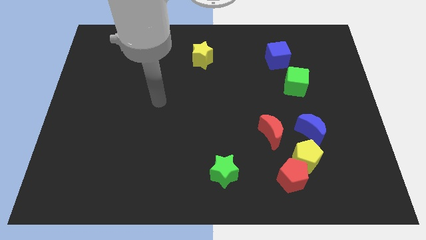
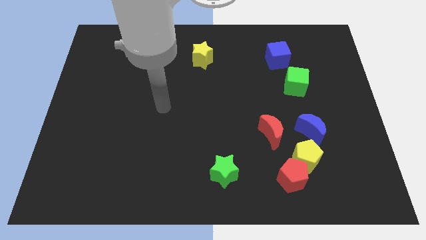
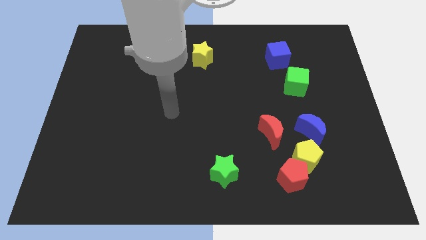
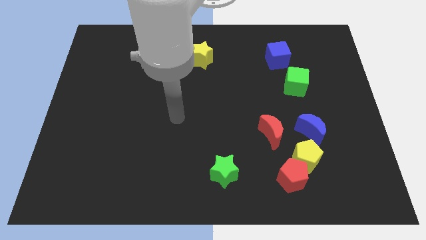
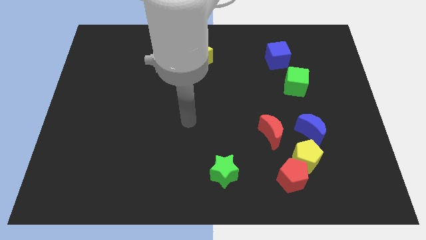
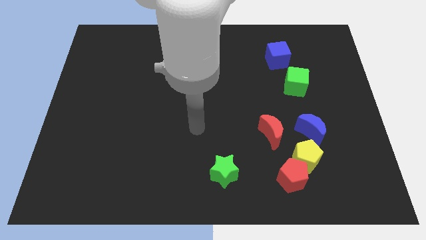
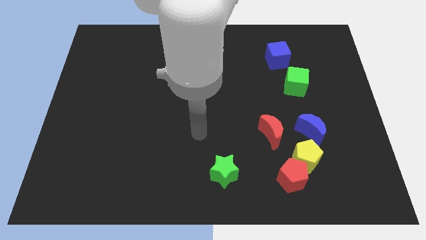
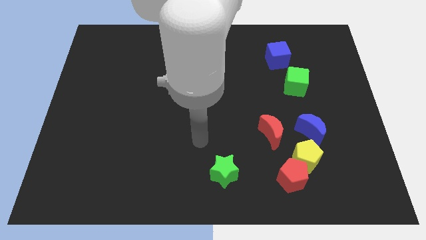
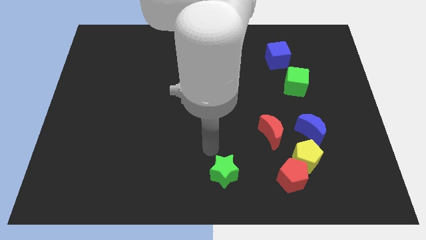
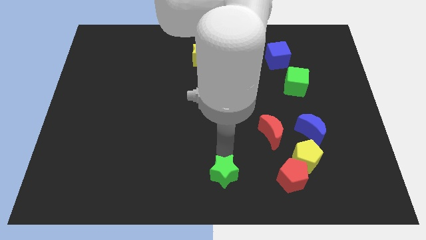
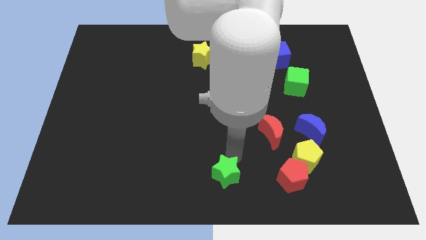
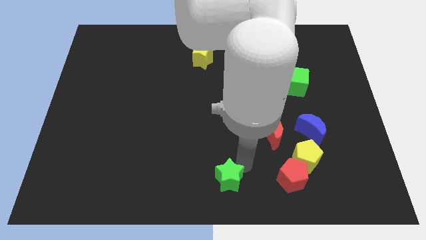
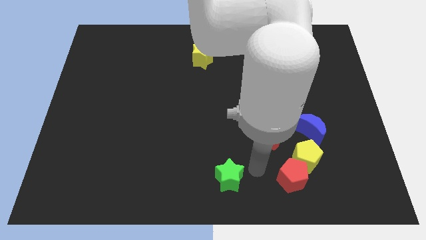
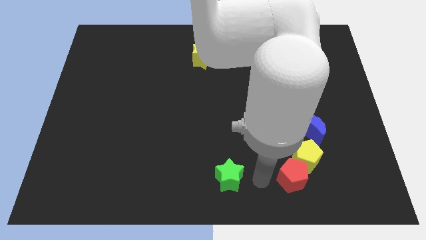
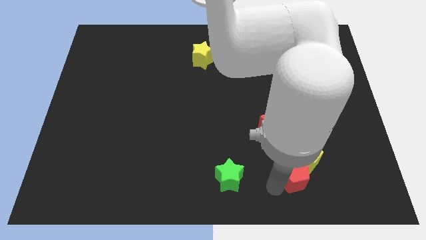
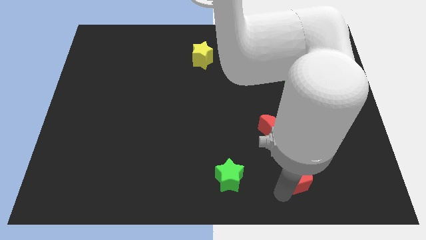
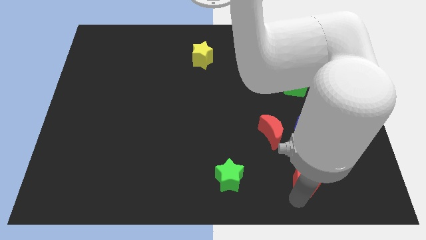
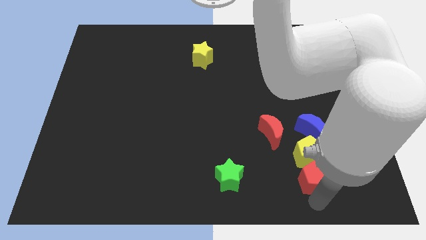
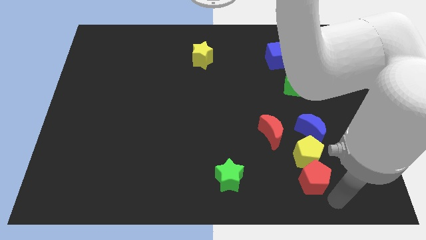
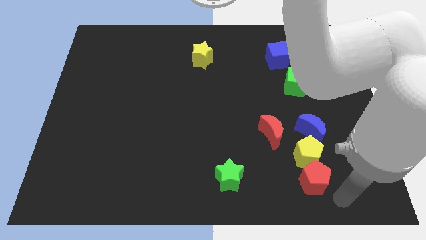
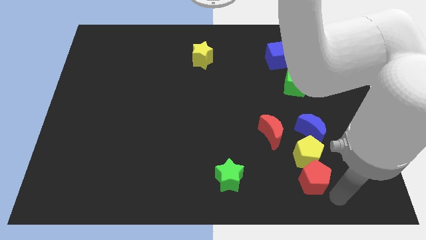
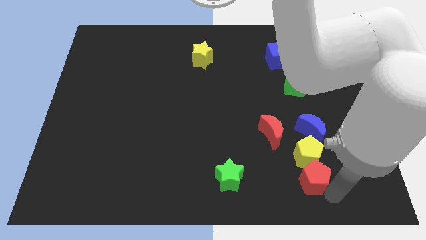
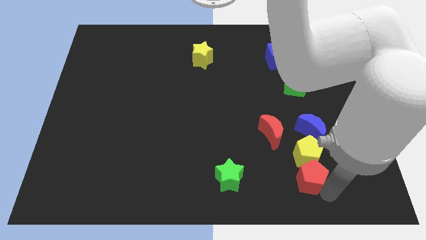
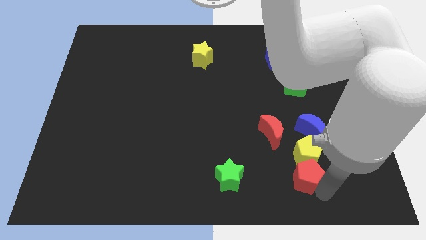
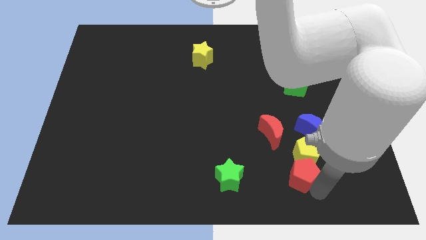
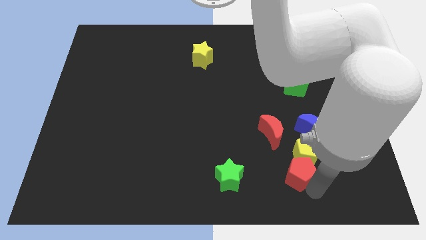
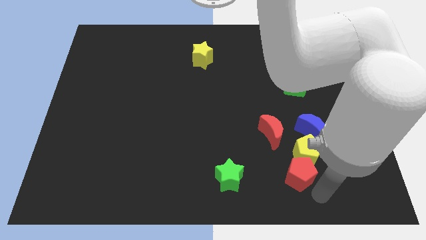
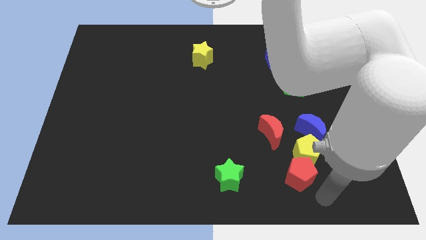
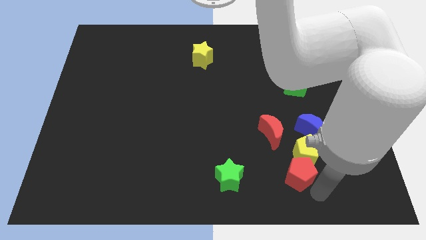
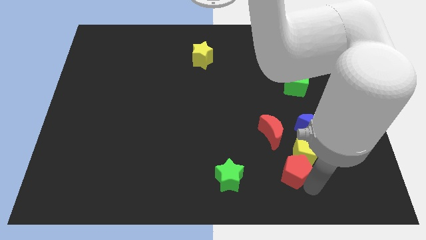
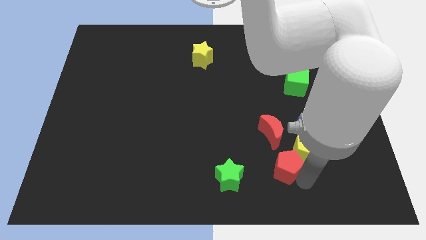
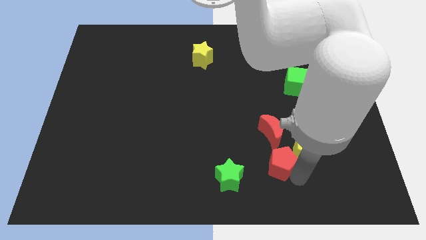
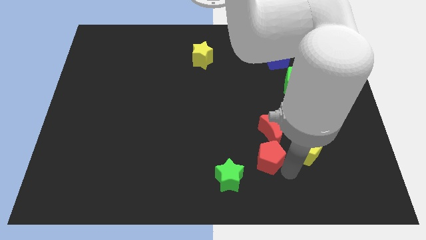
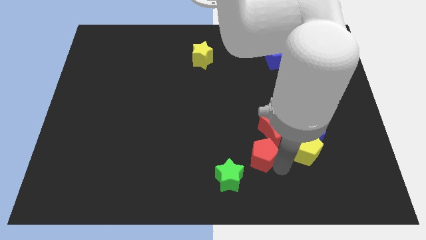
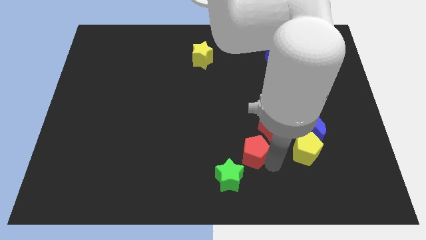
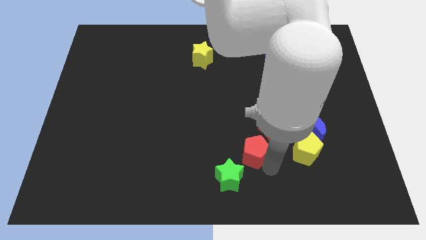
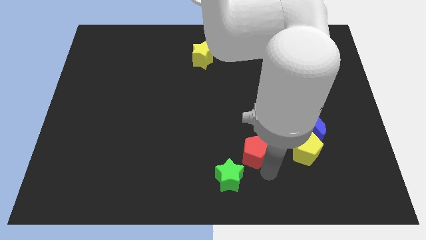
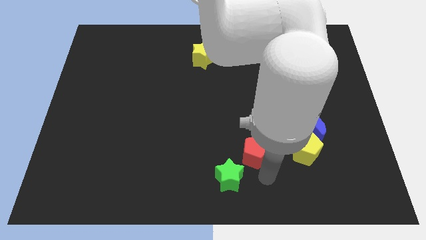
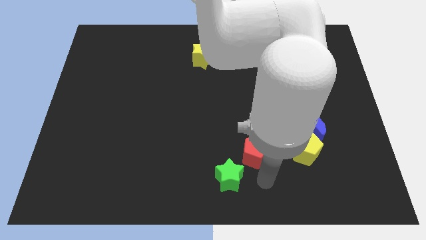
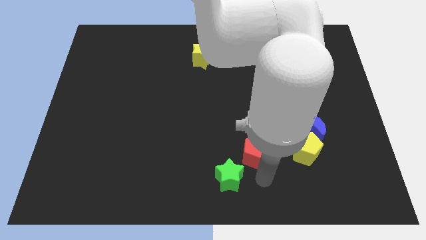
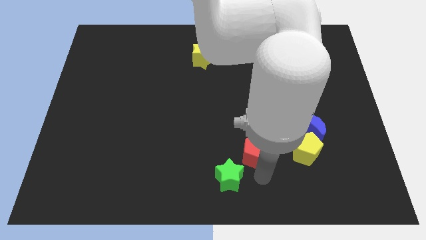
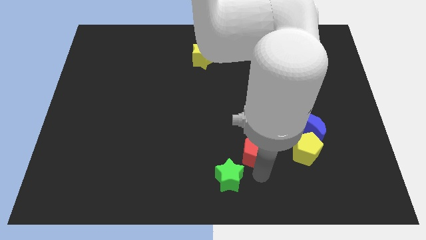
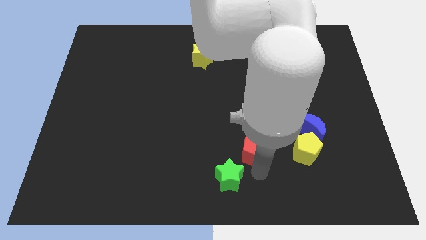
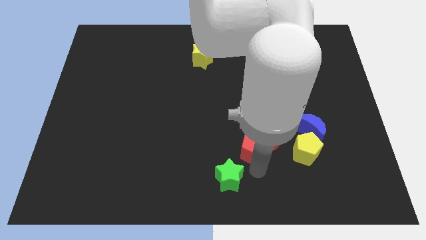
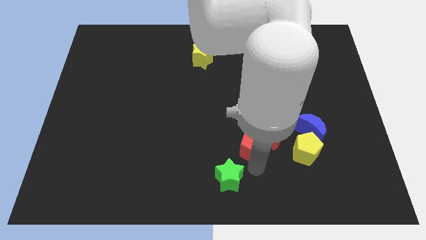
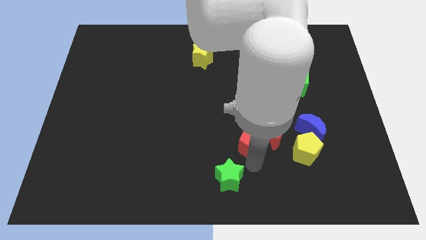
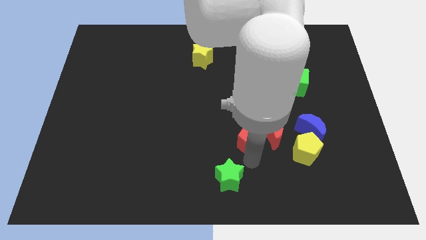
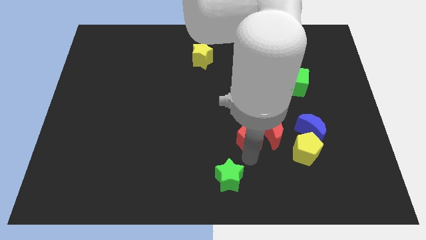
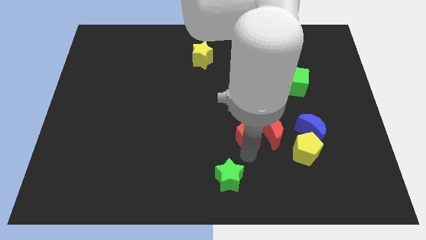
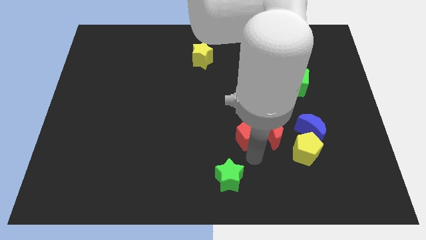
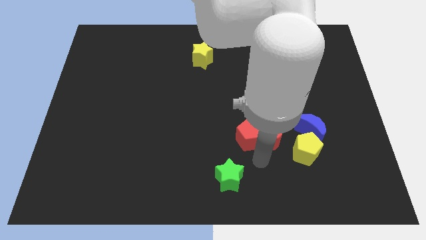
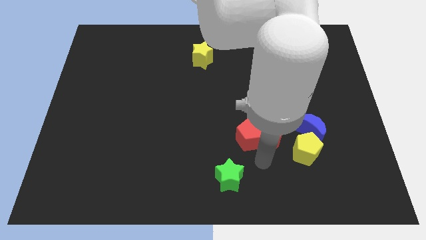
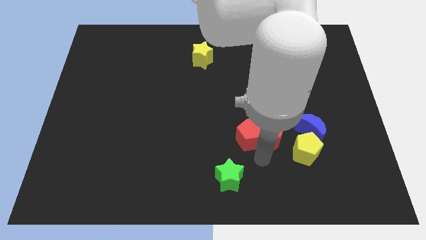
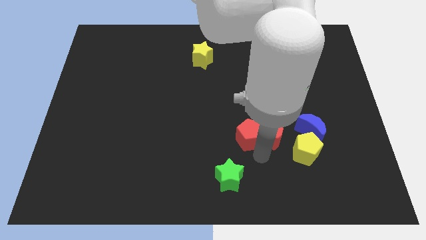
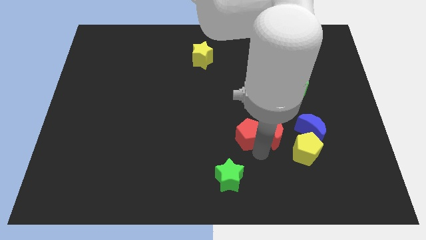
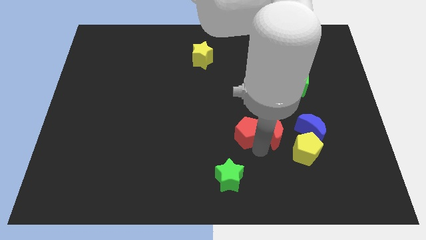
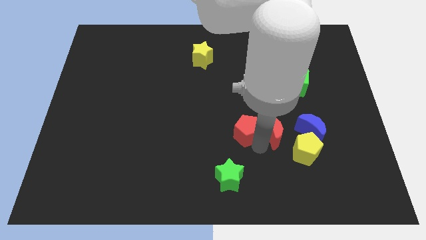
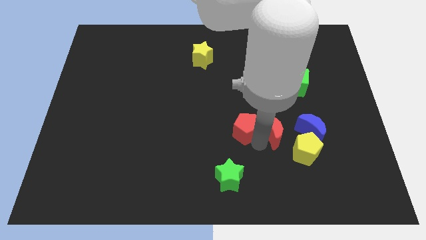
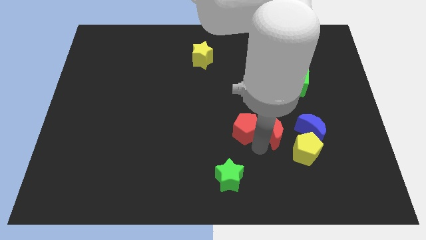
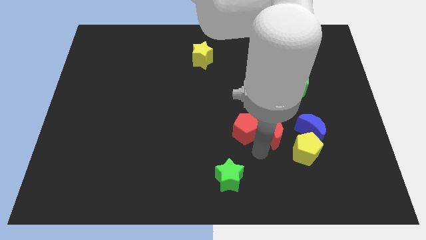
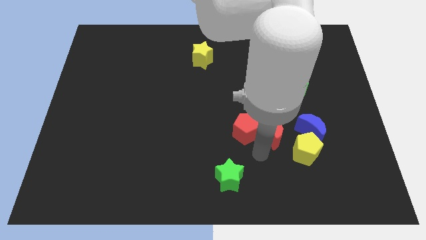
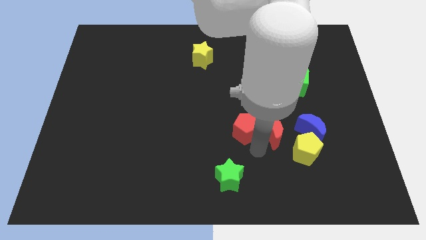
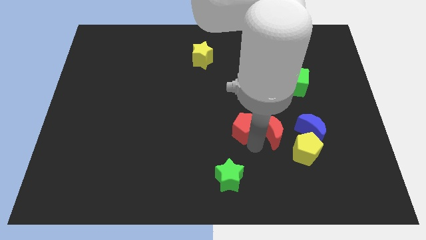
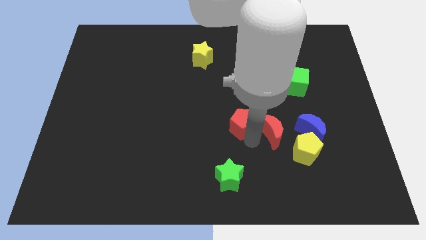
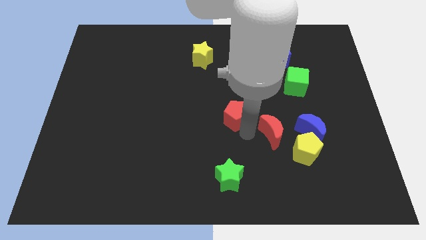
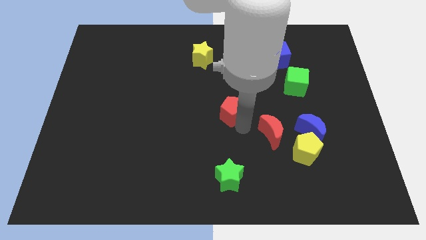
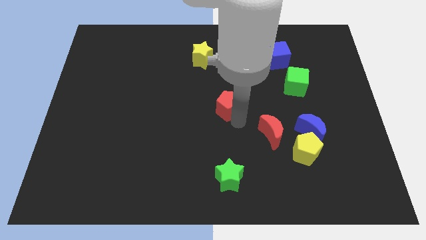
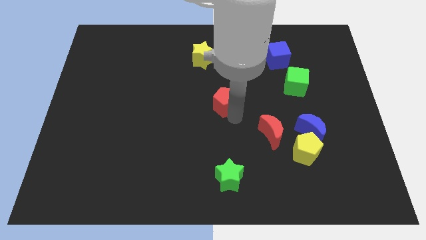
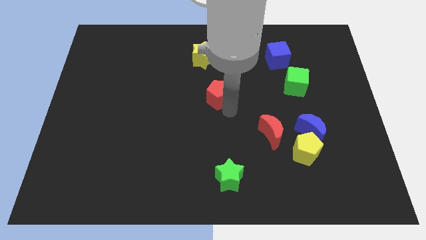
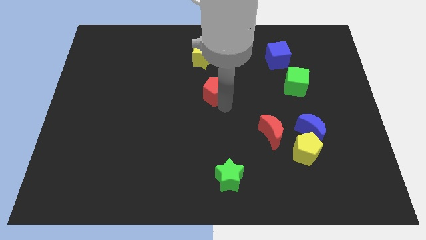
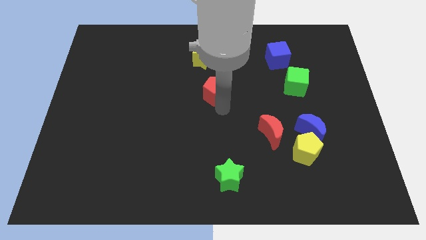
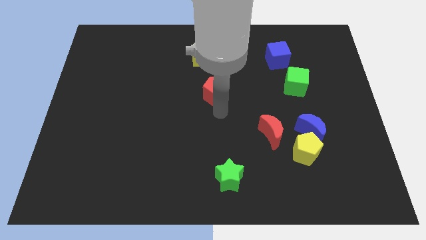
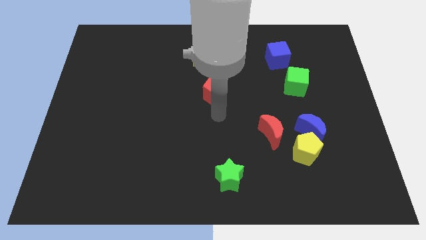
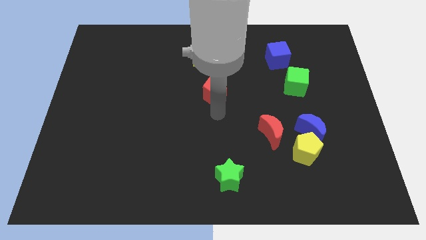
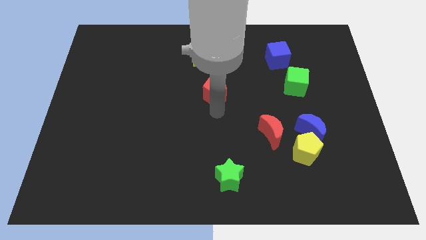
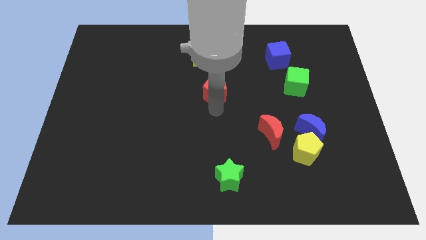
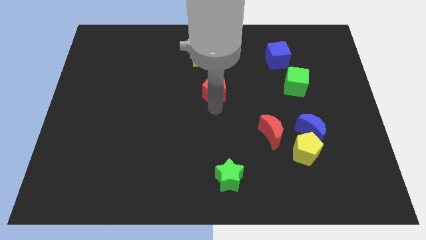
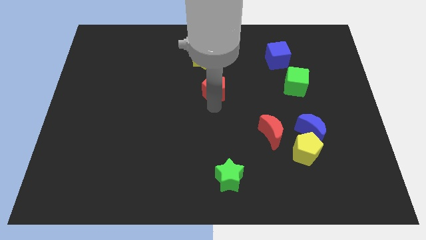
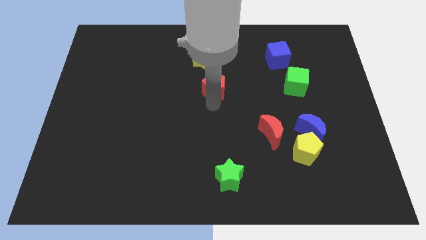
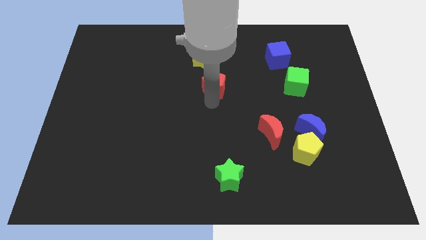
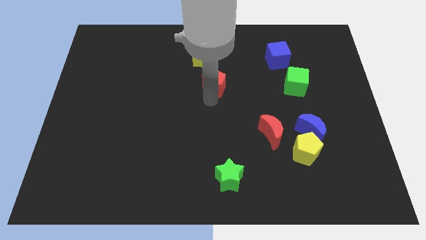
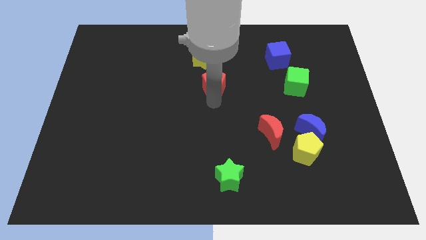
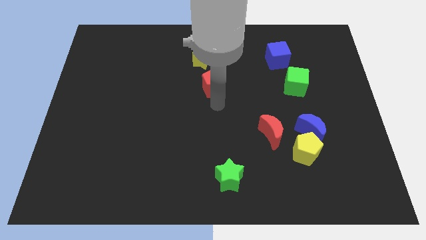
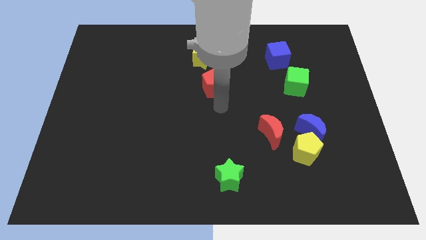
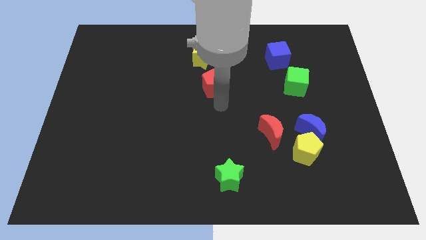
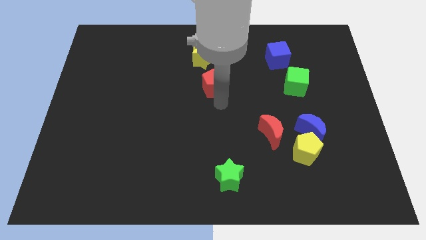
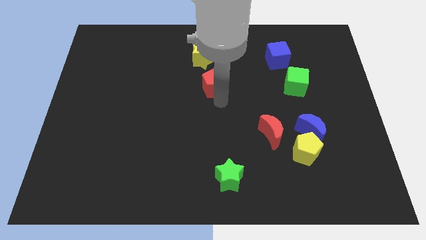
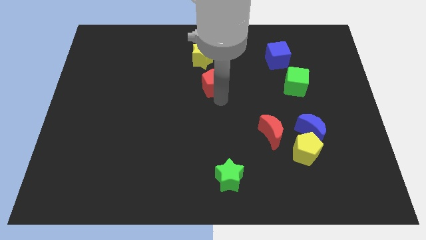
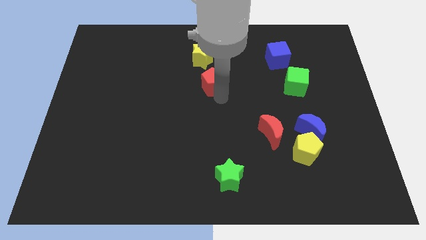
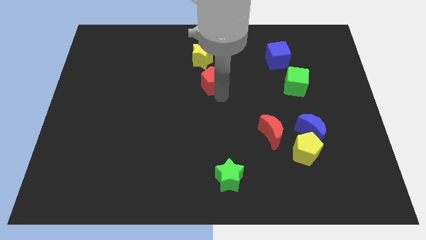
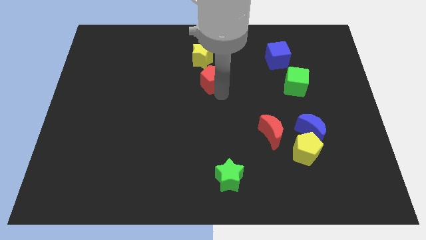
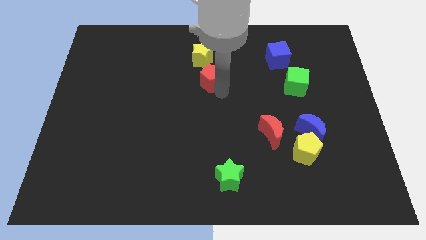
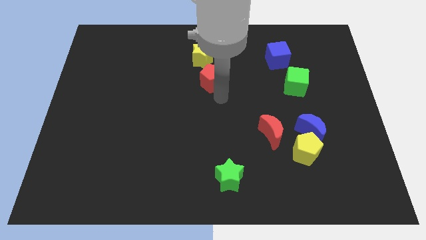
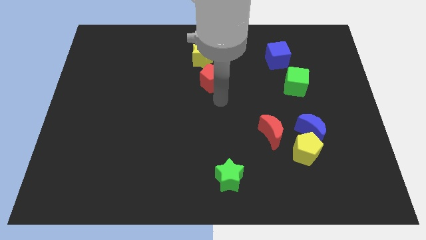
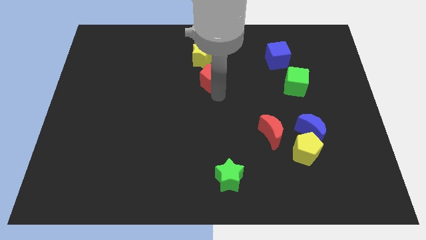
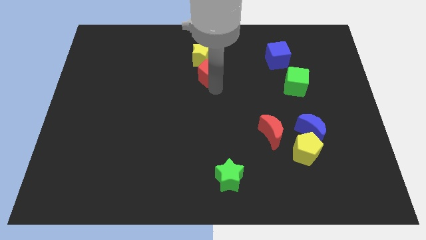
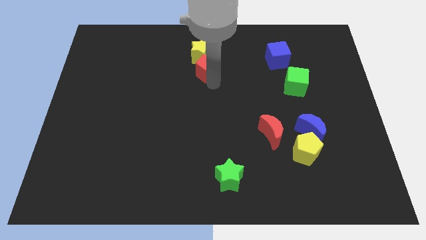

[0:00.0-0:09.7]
push the red pentagon close to the yellow star
